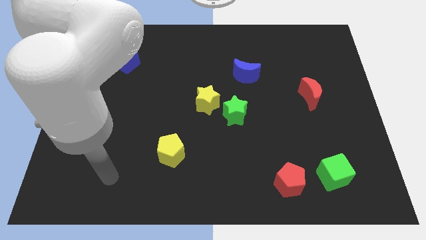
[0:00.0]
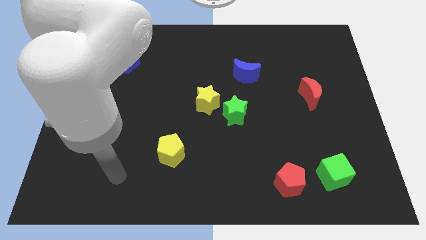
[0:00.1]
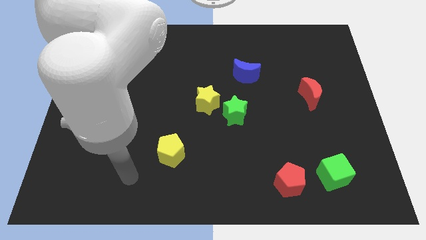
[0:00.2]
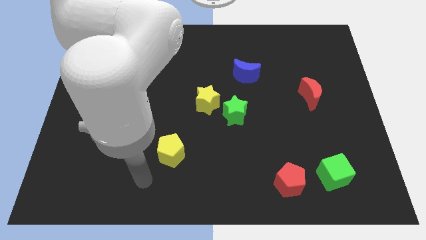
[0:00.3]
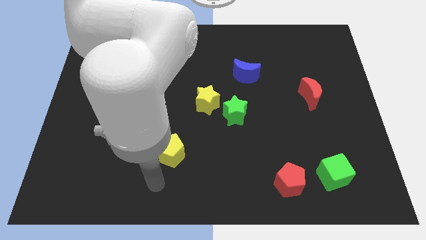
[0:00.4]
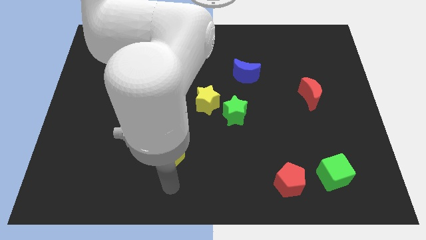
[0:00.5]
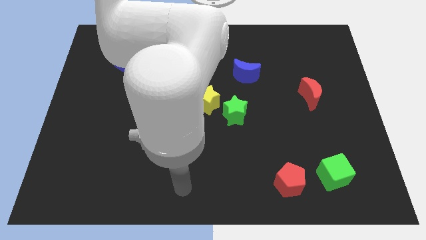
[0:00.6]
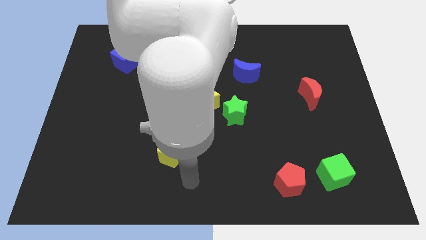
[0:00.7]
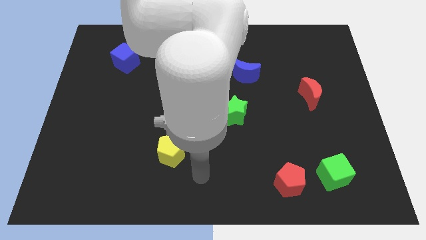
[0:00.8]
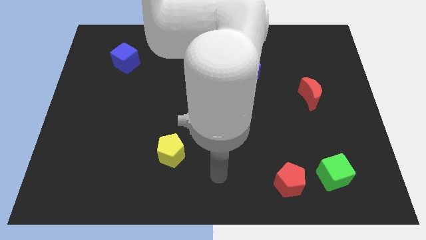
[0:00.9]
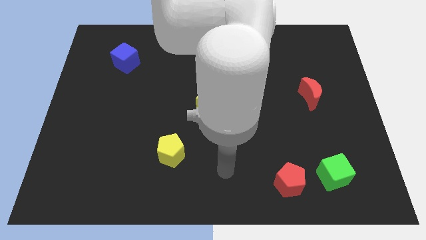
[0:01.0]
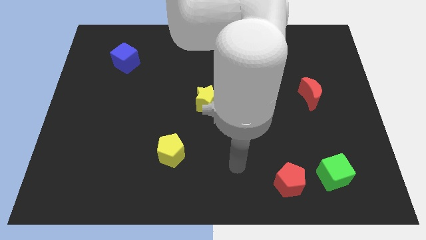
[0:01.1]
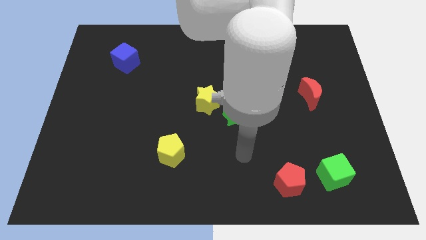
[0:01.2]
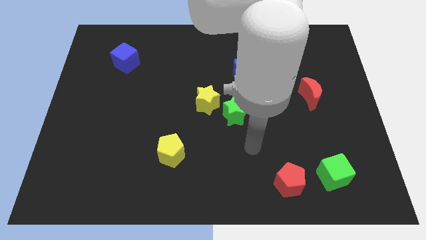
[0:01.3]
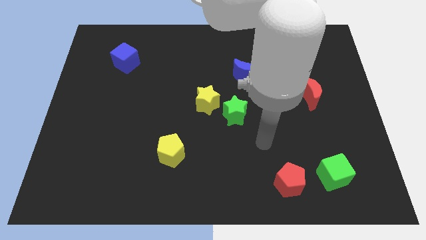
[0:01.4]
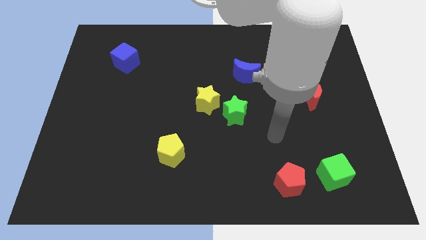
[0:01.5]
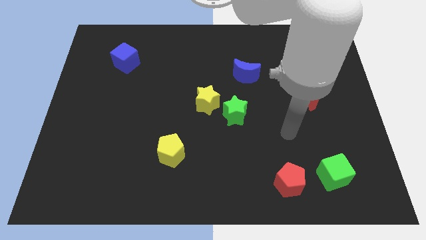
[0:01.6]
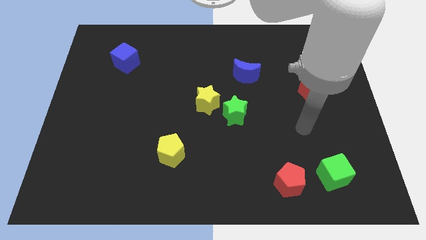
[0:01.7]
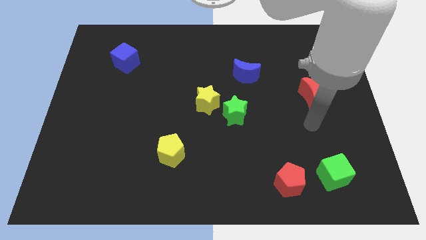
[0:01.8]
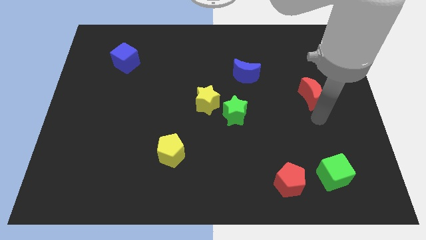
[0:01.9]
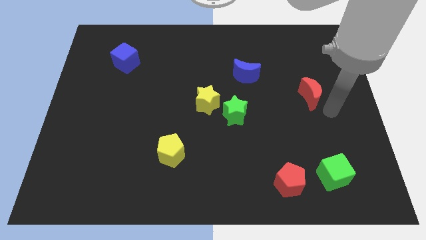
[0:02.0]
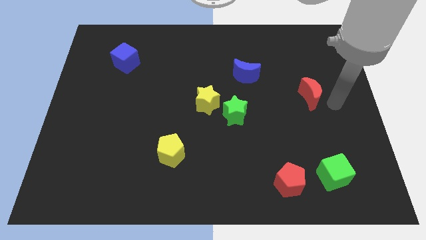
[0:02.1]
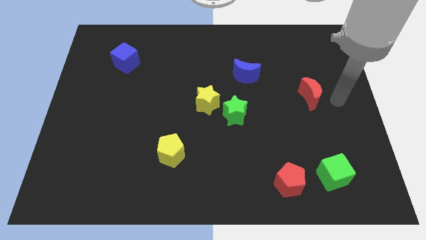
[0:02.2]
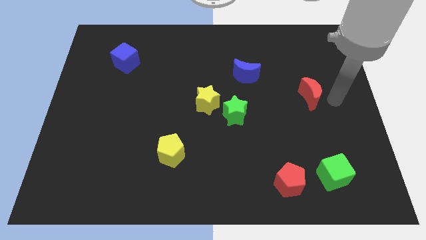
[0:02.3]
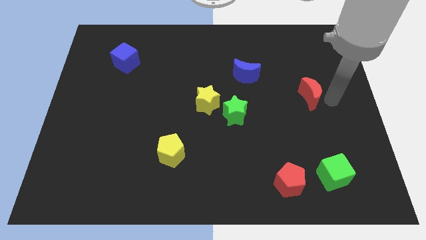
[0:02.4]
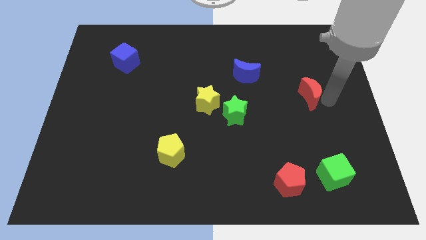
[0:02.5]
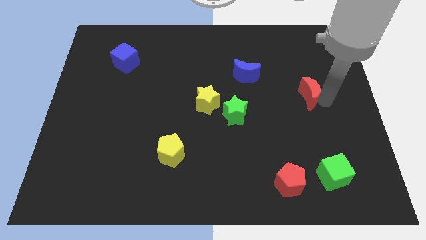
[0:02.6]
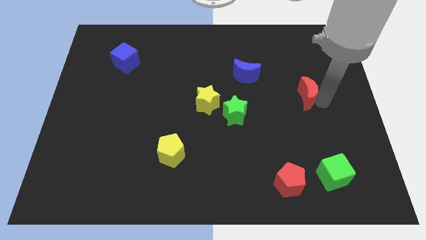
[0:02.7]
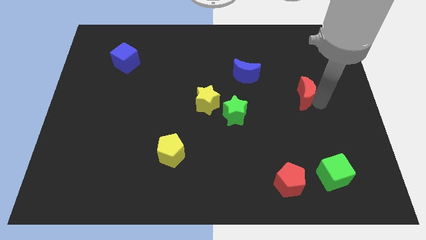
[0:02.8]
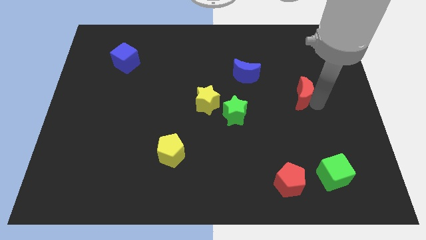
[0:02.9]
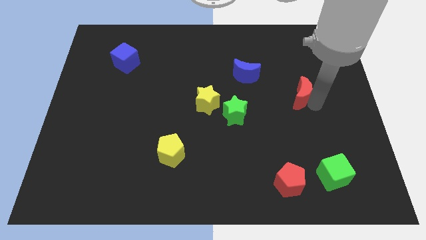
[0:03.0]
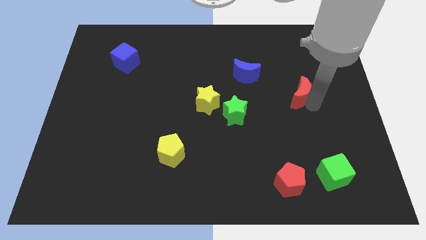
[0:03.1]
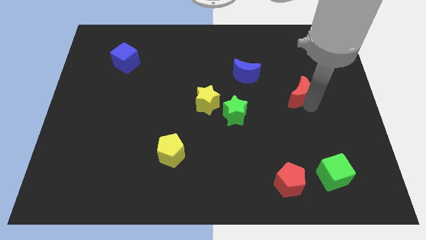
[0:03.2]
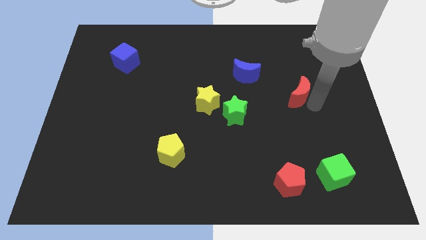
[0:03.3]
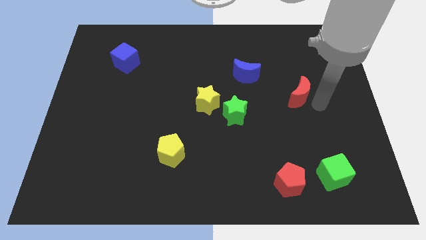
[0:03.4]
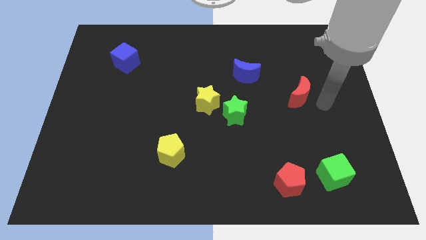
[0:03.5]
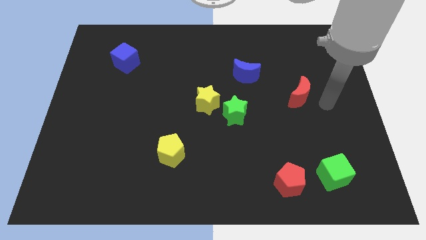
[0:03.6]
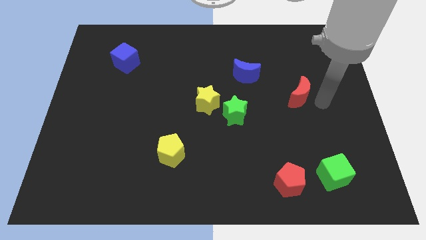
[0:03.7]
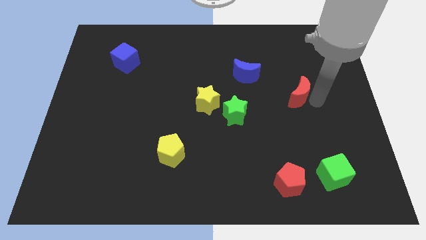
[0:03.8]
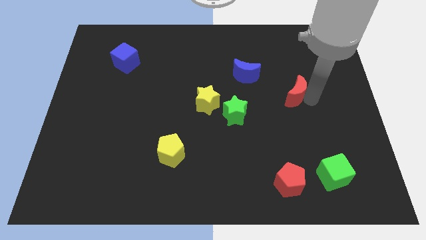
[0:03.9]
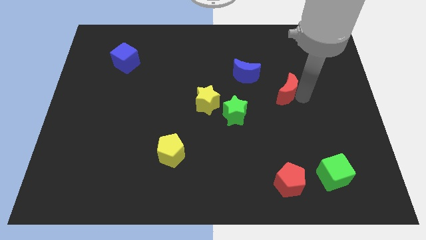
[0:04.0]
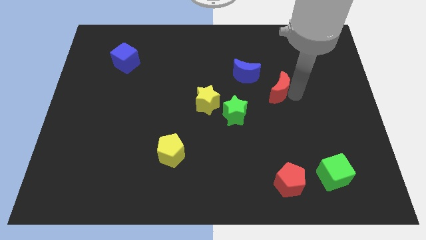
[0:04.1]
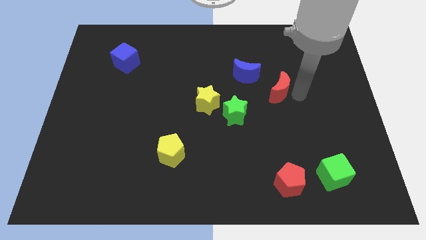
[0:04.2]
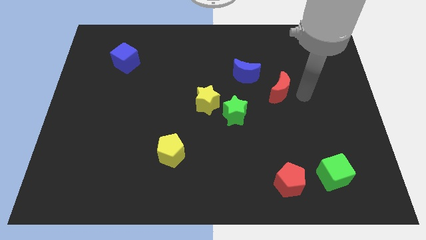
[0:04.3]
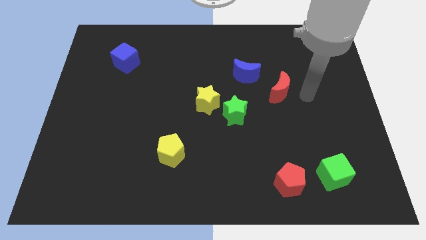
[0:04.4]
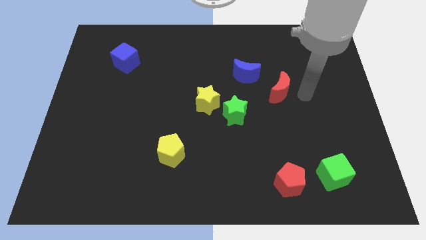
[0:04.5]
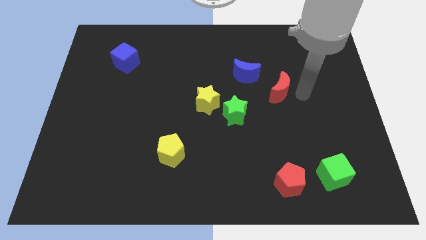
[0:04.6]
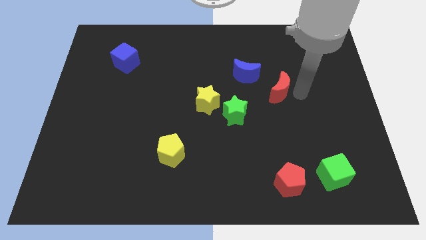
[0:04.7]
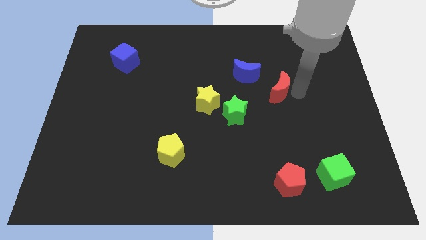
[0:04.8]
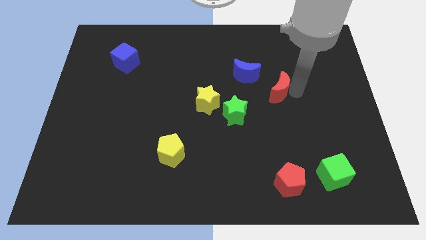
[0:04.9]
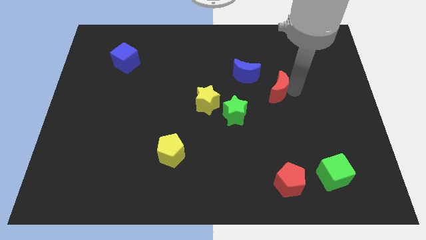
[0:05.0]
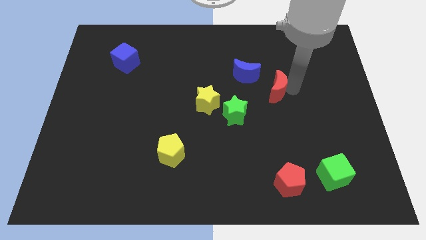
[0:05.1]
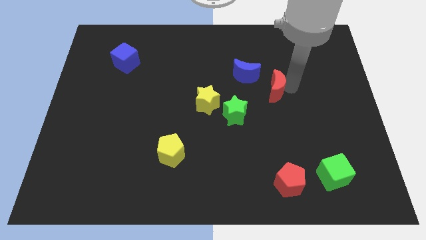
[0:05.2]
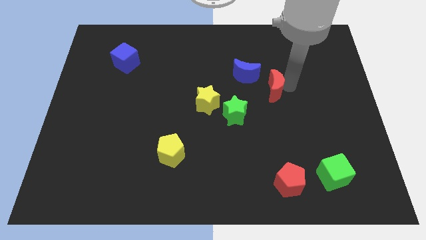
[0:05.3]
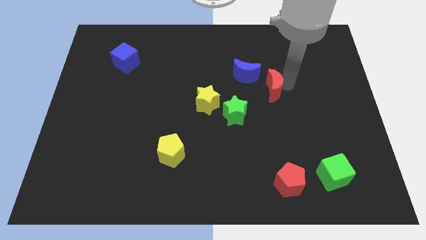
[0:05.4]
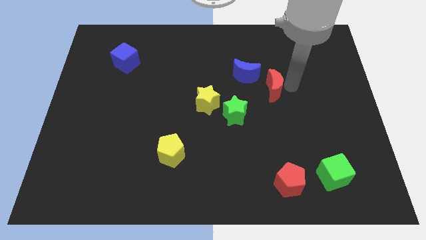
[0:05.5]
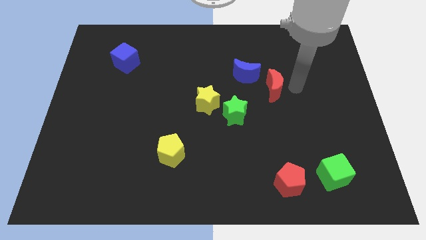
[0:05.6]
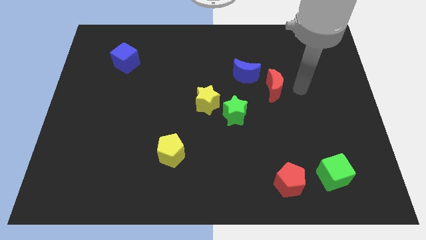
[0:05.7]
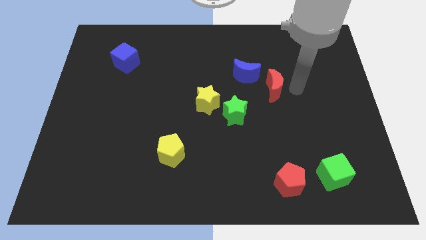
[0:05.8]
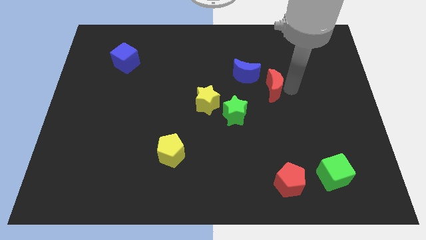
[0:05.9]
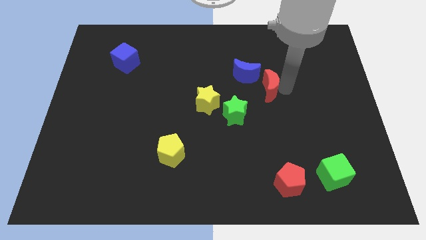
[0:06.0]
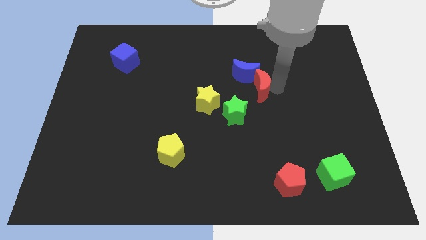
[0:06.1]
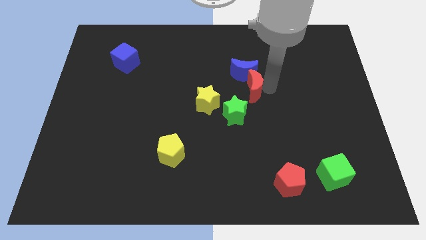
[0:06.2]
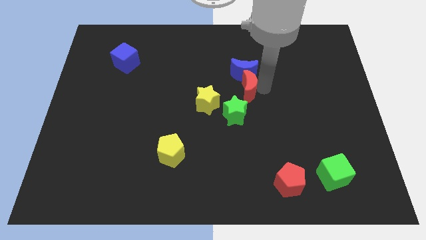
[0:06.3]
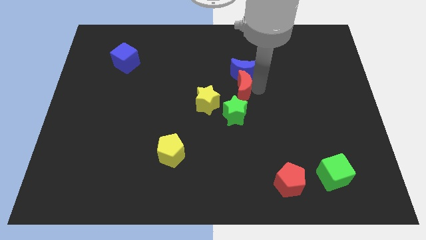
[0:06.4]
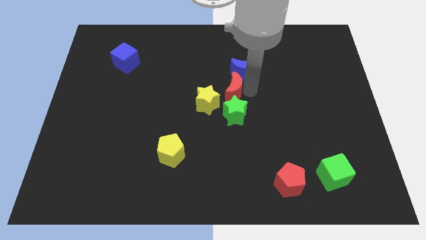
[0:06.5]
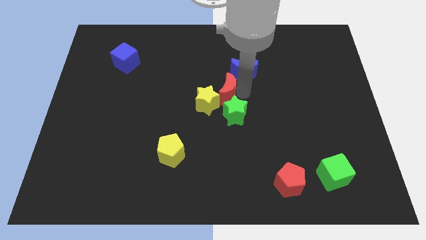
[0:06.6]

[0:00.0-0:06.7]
move the red moon to the left

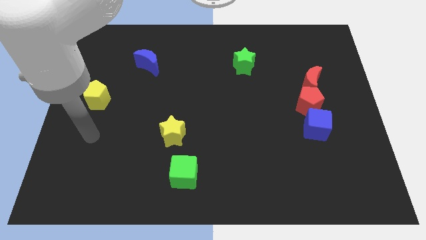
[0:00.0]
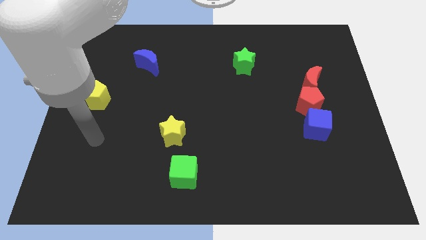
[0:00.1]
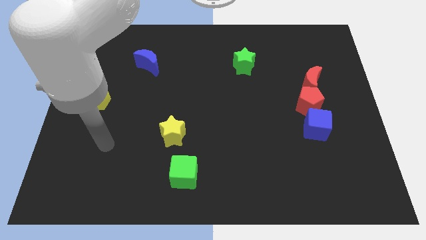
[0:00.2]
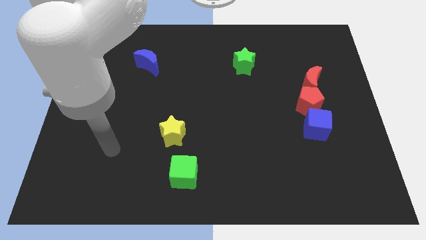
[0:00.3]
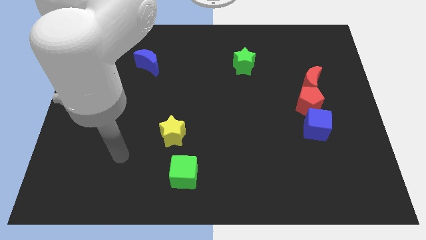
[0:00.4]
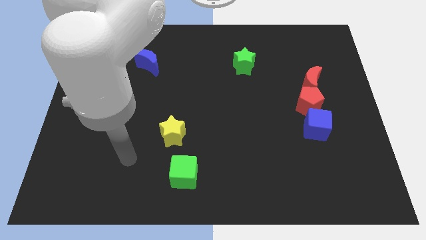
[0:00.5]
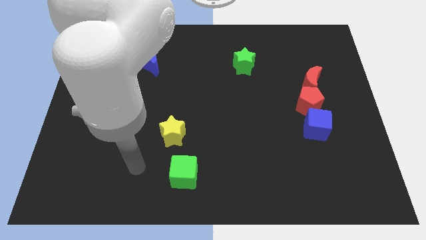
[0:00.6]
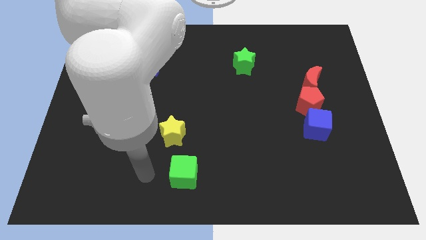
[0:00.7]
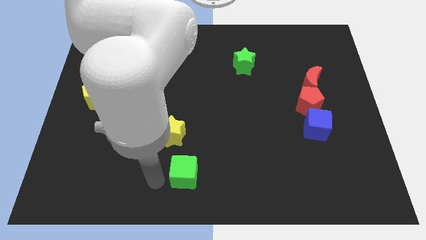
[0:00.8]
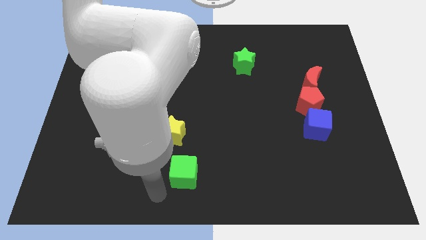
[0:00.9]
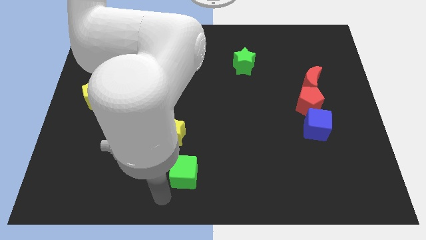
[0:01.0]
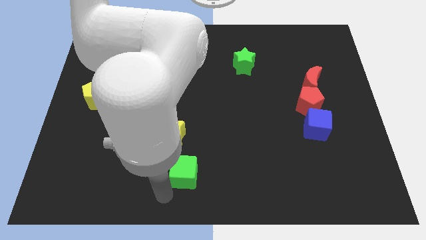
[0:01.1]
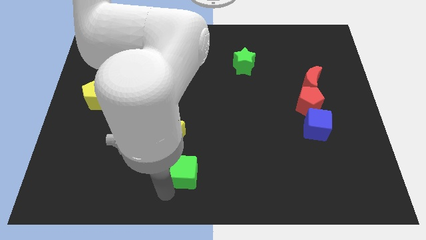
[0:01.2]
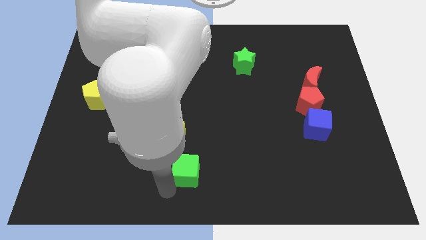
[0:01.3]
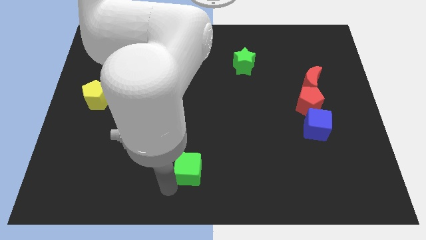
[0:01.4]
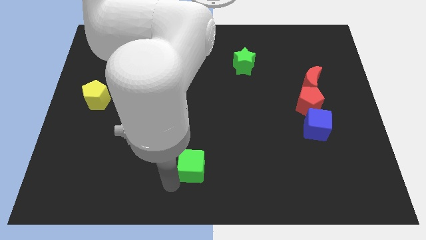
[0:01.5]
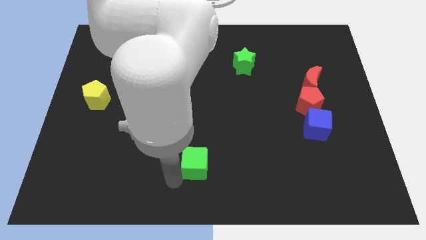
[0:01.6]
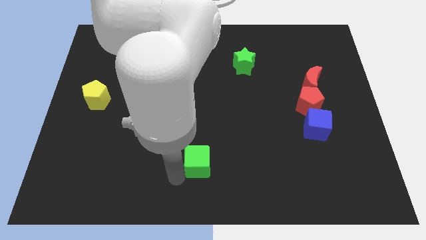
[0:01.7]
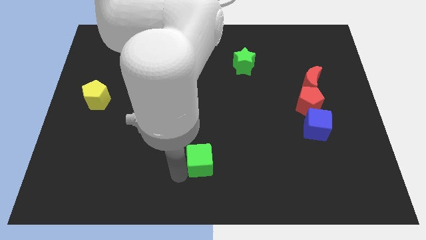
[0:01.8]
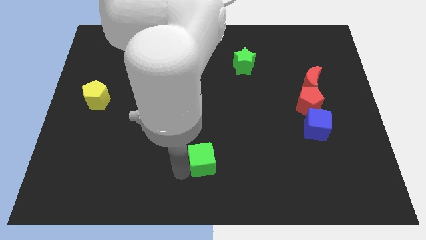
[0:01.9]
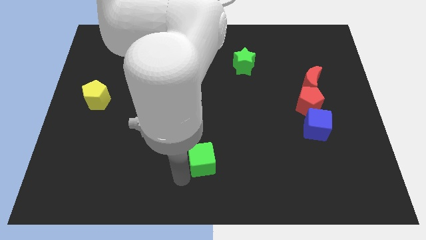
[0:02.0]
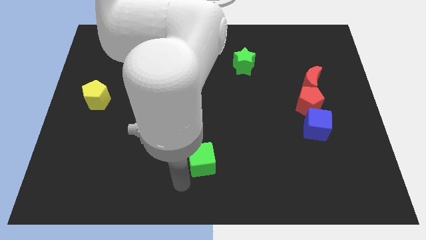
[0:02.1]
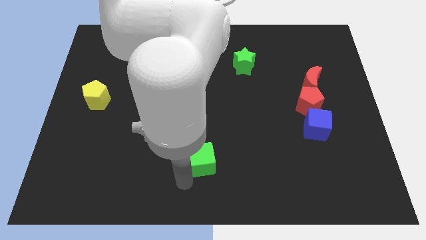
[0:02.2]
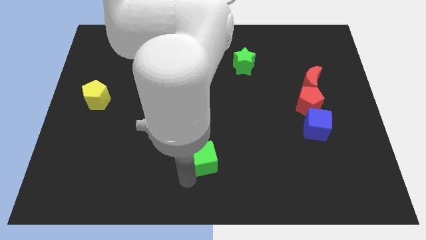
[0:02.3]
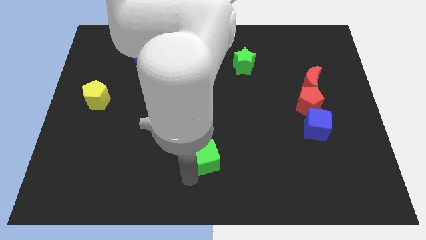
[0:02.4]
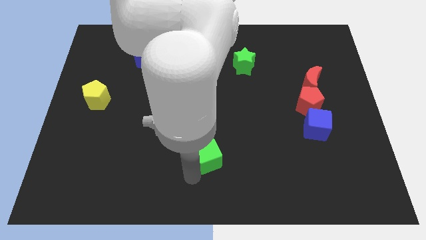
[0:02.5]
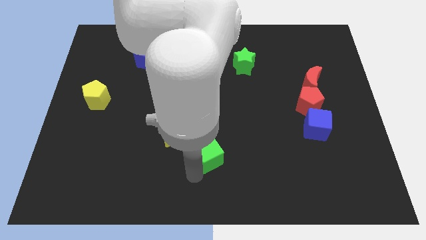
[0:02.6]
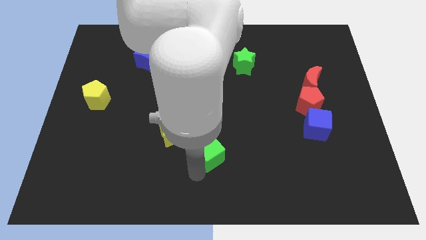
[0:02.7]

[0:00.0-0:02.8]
move the green cube upwards and then to the right a little bit
